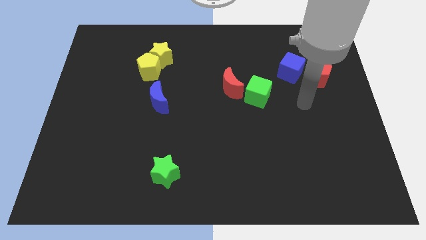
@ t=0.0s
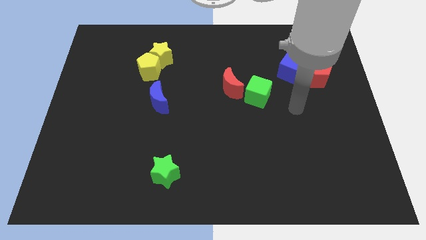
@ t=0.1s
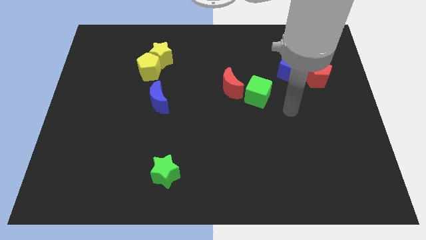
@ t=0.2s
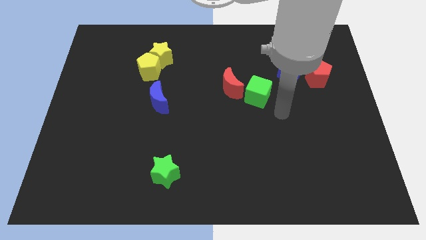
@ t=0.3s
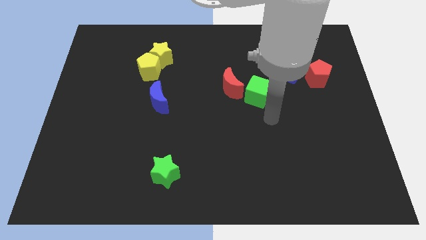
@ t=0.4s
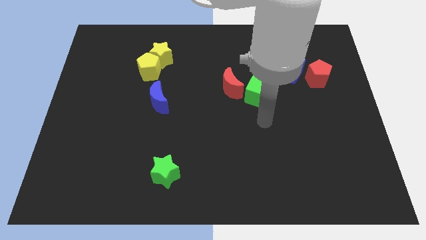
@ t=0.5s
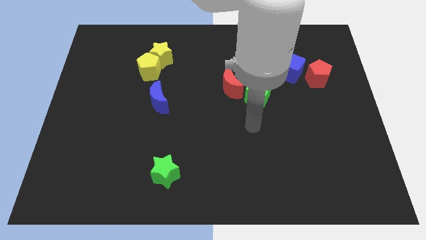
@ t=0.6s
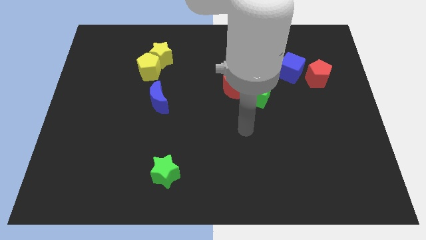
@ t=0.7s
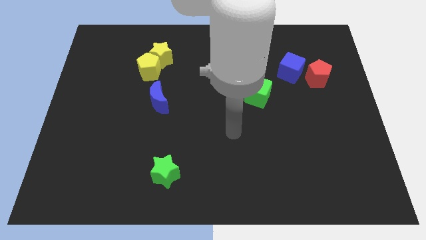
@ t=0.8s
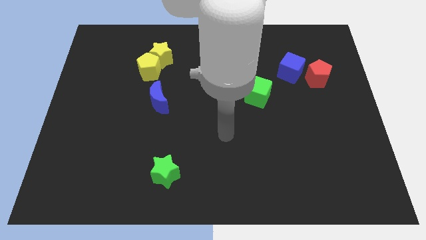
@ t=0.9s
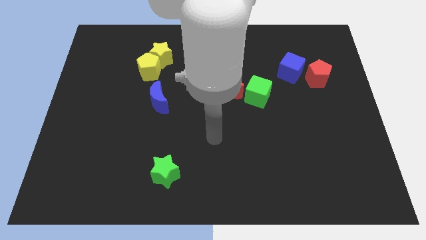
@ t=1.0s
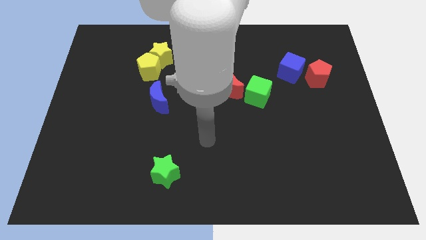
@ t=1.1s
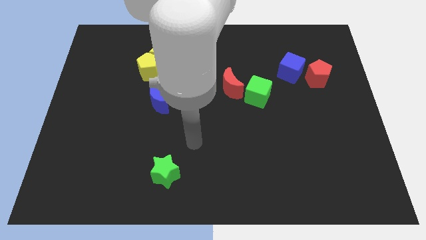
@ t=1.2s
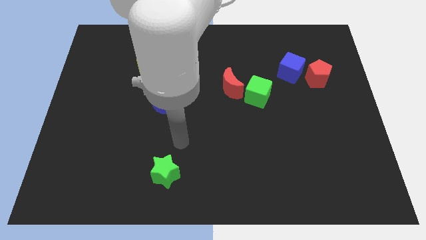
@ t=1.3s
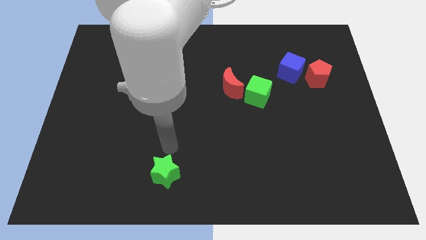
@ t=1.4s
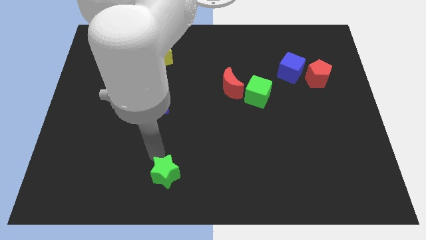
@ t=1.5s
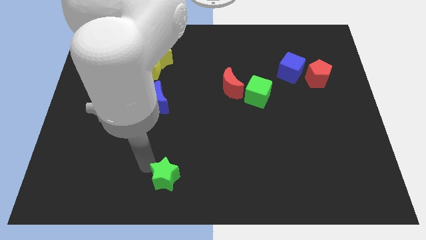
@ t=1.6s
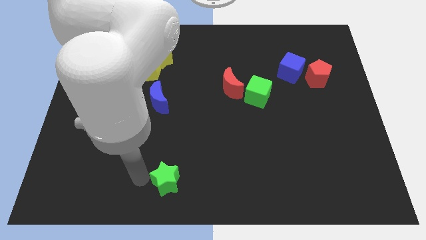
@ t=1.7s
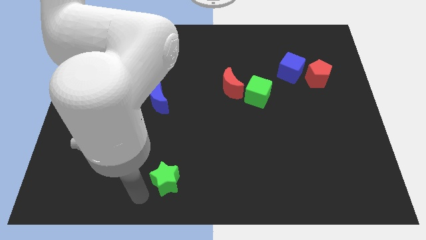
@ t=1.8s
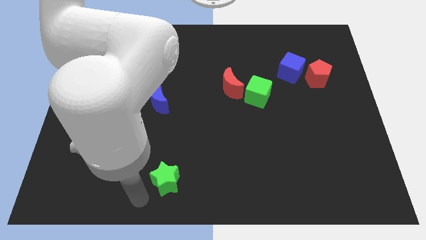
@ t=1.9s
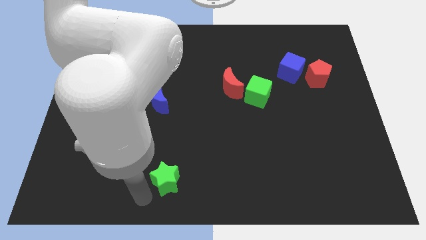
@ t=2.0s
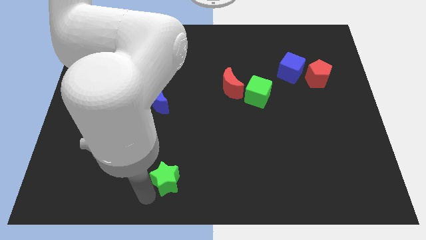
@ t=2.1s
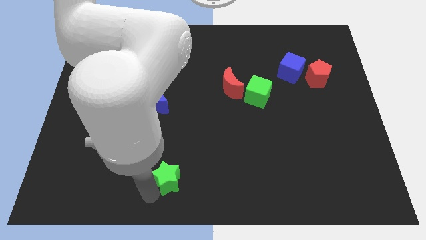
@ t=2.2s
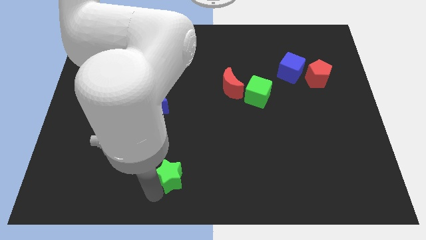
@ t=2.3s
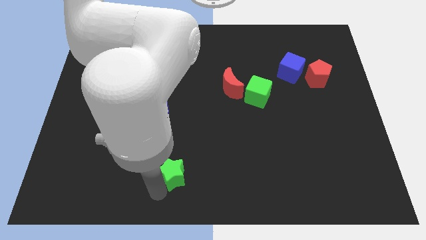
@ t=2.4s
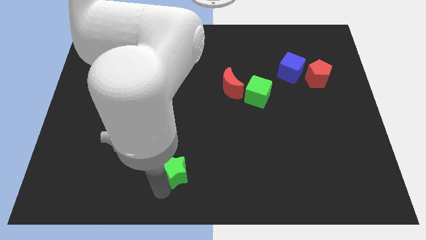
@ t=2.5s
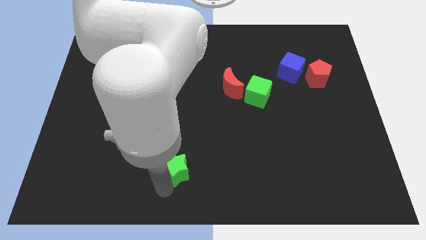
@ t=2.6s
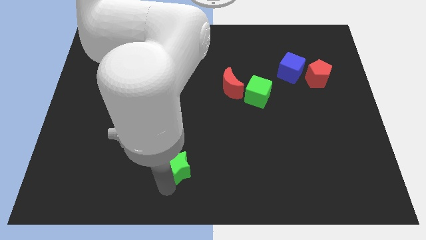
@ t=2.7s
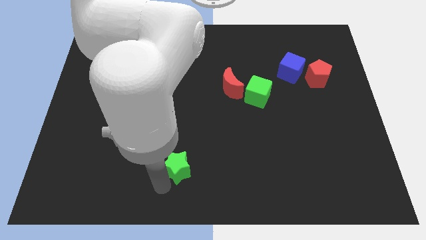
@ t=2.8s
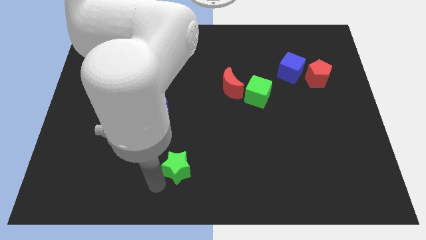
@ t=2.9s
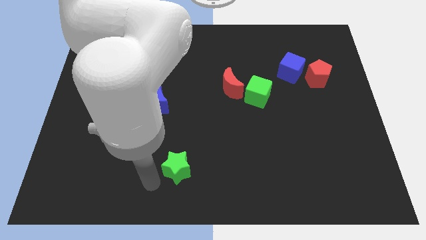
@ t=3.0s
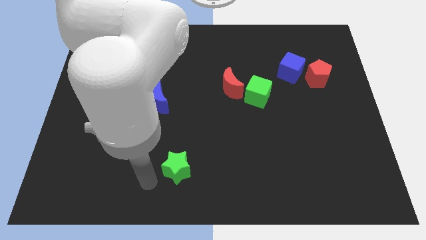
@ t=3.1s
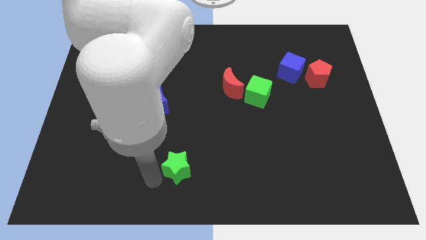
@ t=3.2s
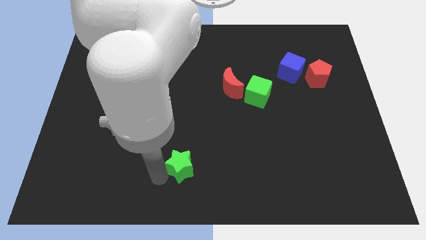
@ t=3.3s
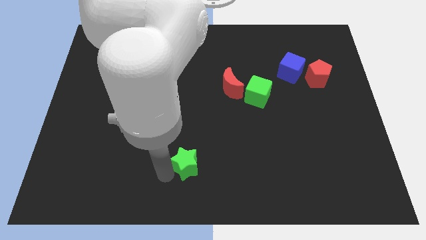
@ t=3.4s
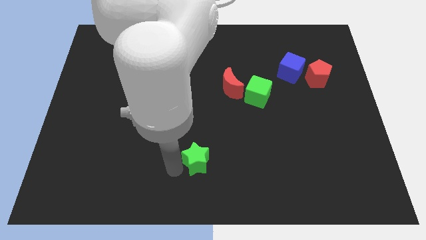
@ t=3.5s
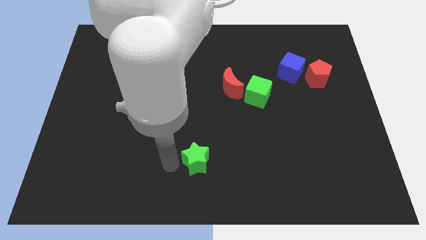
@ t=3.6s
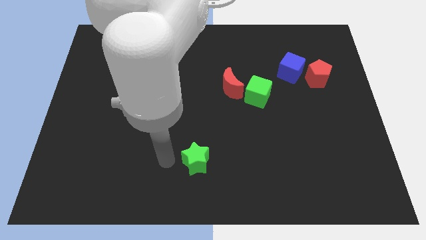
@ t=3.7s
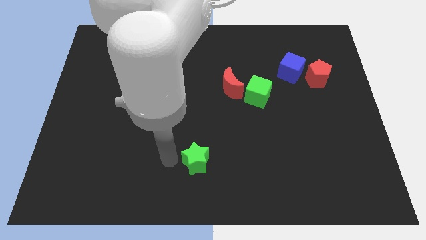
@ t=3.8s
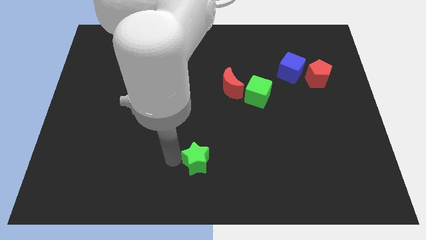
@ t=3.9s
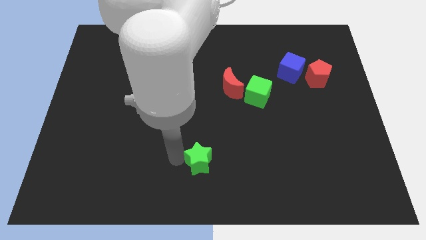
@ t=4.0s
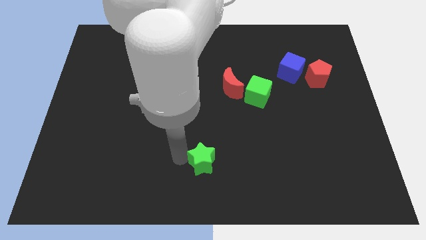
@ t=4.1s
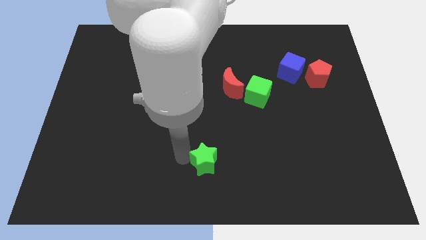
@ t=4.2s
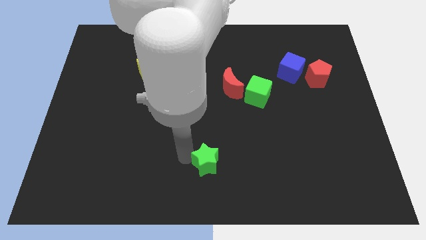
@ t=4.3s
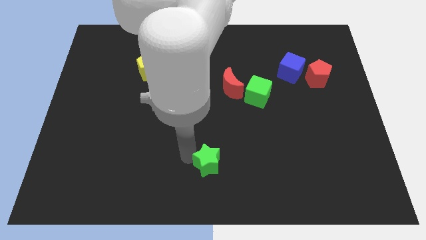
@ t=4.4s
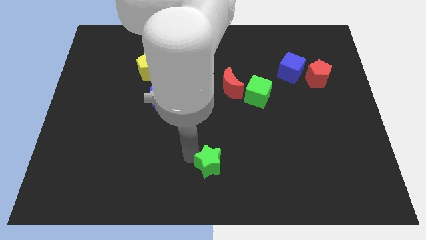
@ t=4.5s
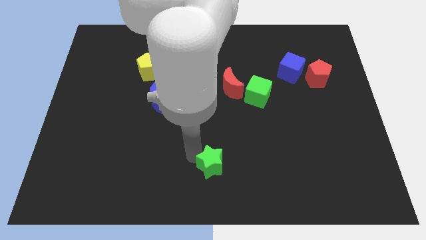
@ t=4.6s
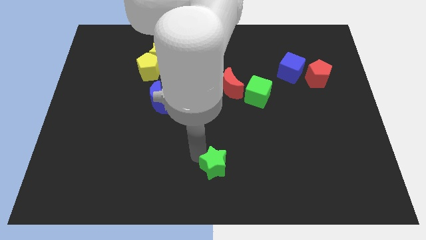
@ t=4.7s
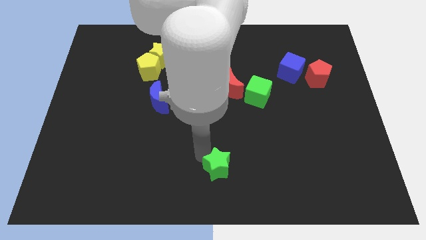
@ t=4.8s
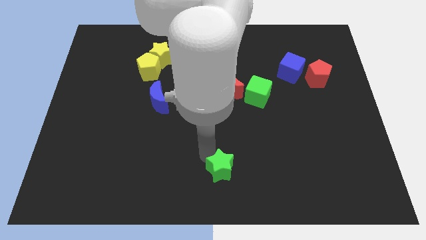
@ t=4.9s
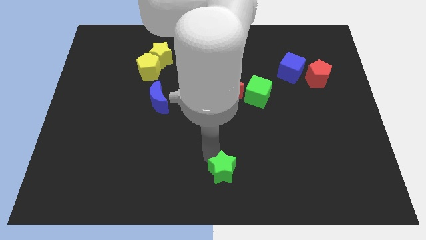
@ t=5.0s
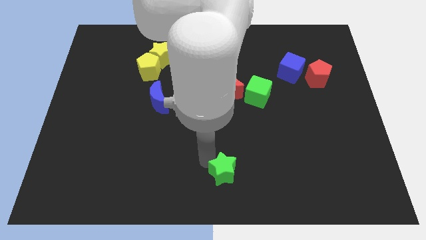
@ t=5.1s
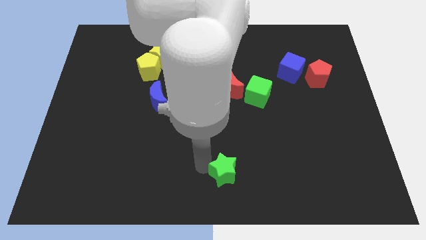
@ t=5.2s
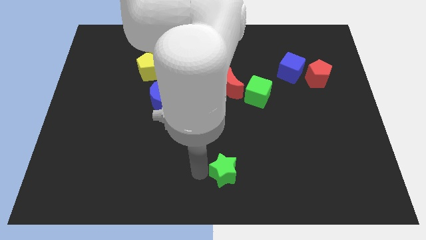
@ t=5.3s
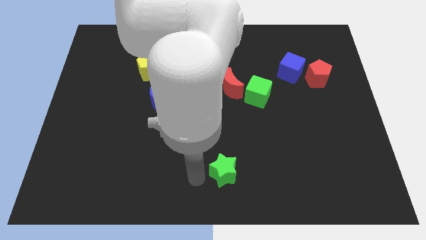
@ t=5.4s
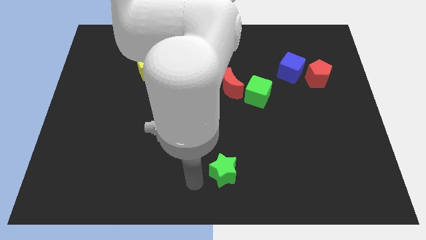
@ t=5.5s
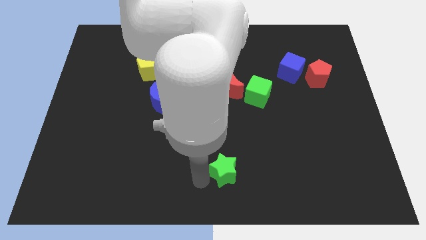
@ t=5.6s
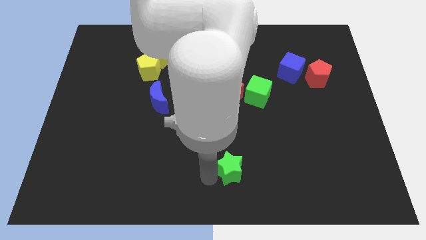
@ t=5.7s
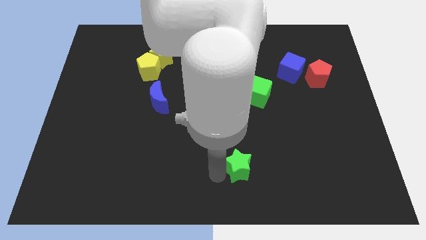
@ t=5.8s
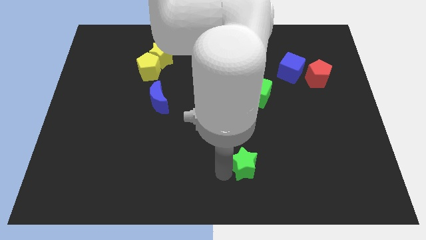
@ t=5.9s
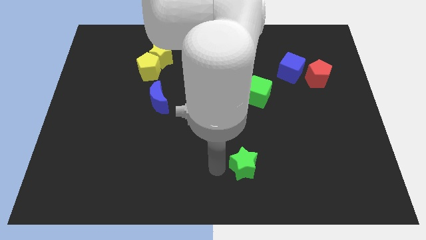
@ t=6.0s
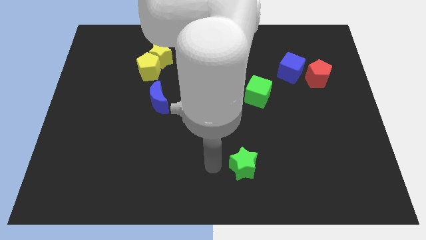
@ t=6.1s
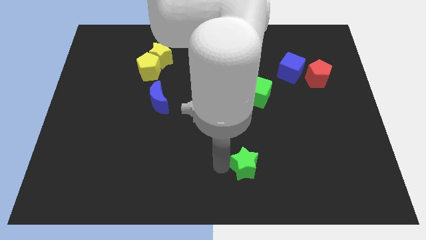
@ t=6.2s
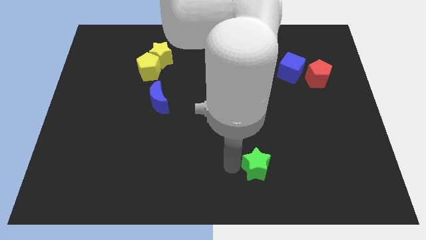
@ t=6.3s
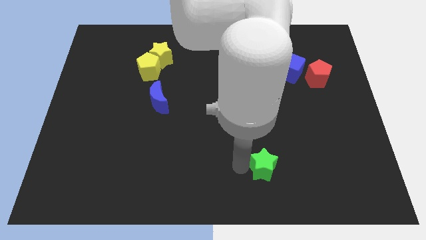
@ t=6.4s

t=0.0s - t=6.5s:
move the green star to the right

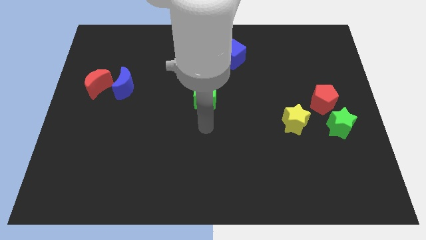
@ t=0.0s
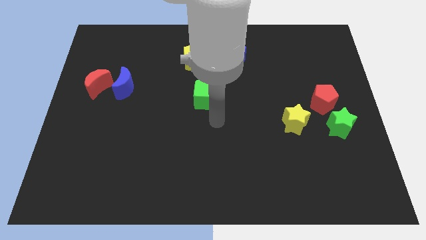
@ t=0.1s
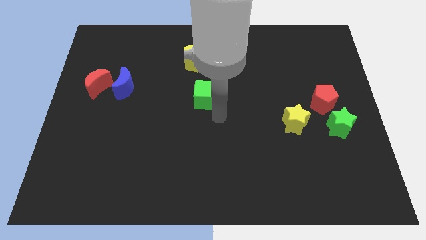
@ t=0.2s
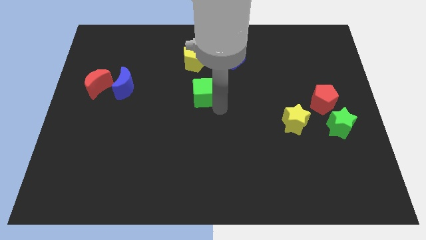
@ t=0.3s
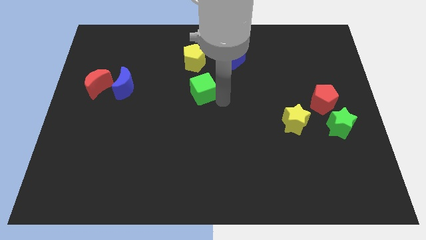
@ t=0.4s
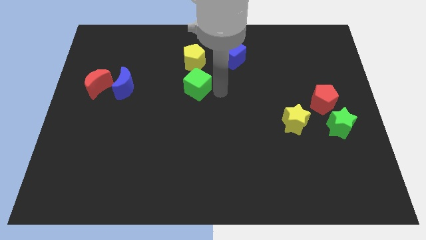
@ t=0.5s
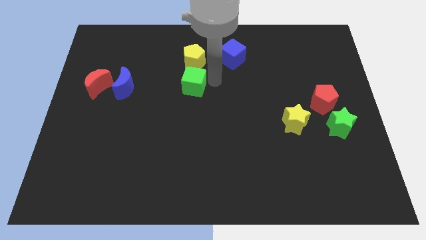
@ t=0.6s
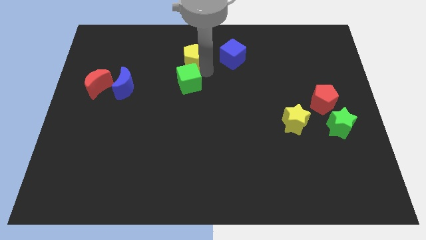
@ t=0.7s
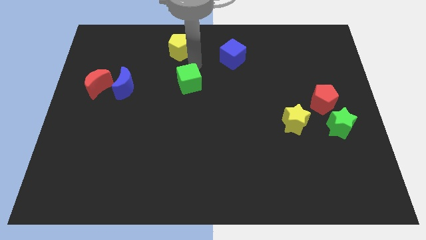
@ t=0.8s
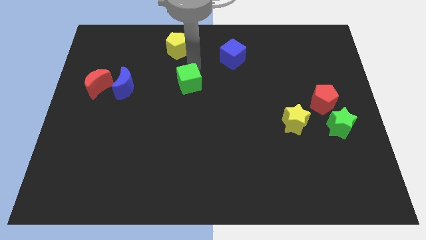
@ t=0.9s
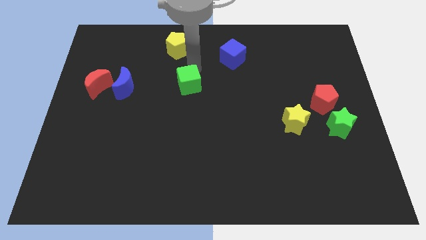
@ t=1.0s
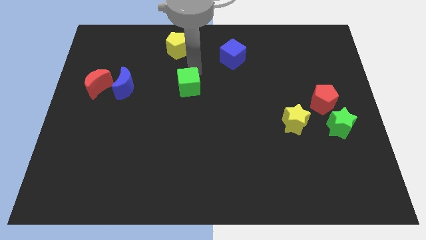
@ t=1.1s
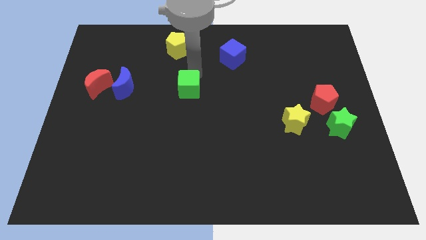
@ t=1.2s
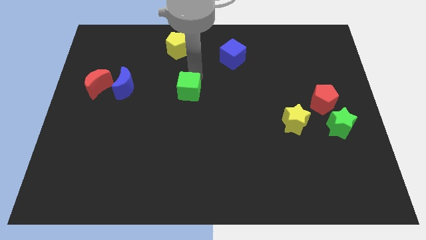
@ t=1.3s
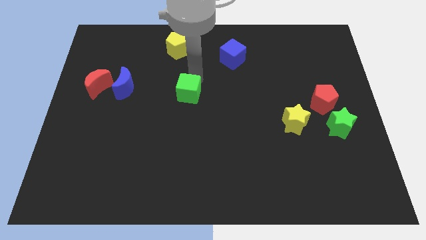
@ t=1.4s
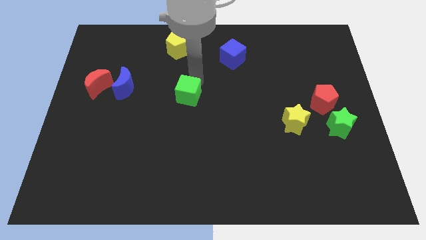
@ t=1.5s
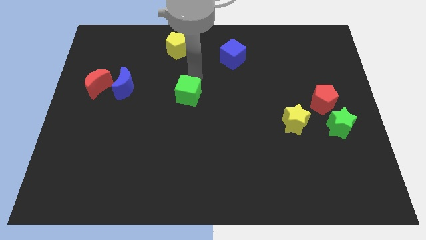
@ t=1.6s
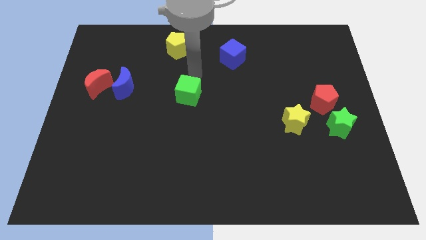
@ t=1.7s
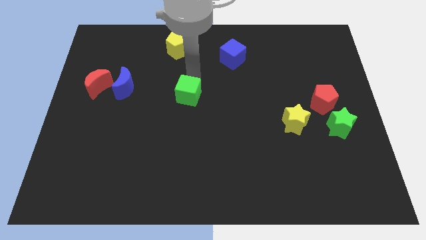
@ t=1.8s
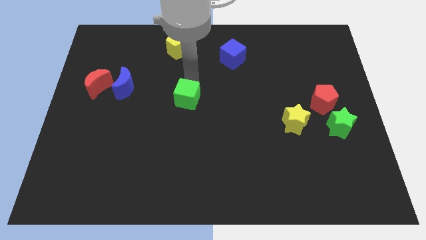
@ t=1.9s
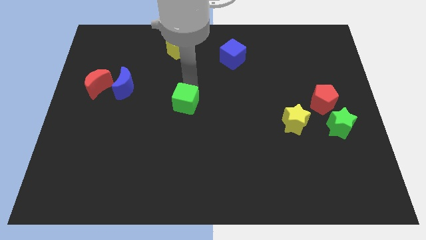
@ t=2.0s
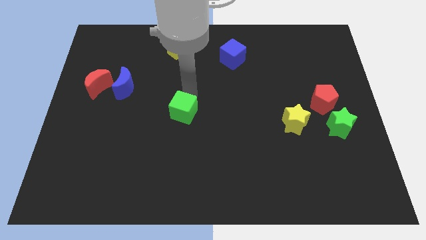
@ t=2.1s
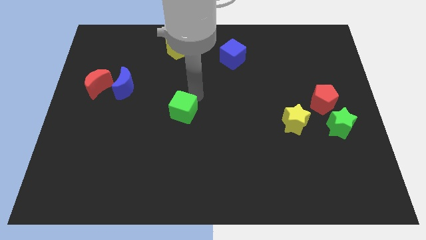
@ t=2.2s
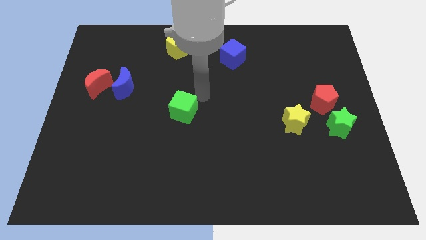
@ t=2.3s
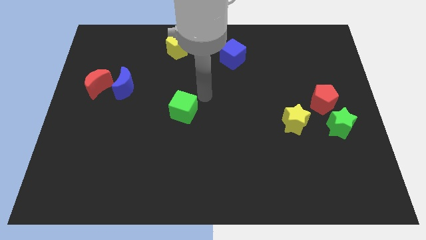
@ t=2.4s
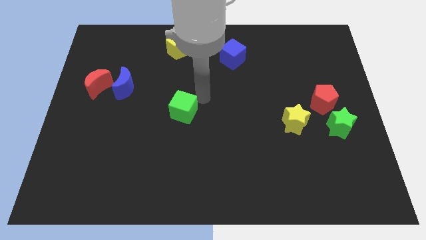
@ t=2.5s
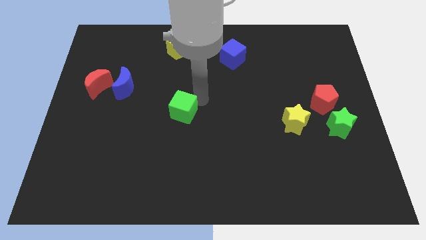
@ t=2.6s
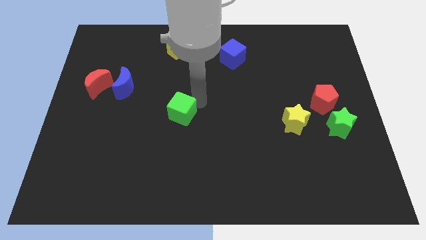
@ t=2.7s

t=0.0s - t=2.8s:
slightly move the green cube downwards and then to the left
